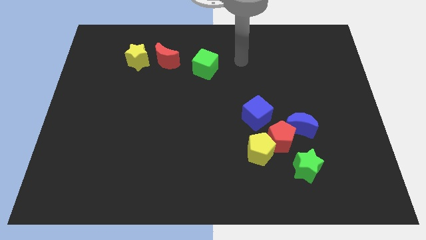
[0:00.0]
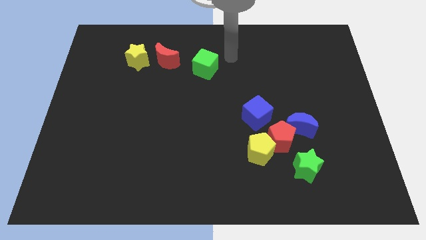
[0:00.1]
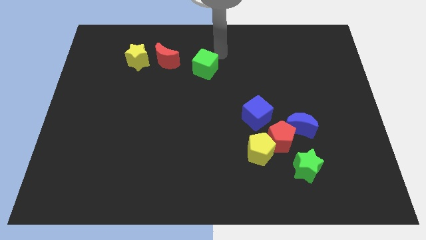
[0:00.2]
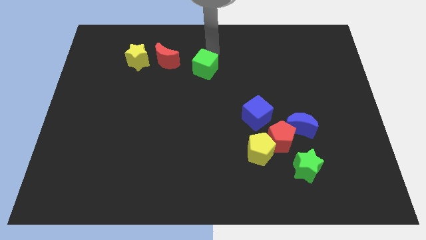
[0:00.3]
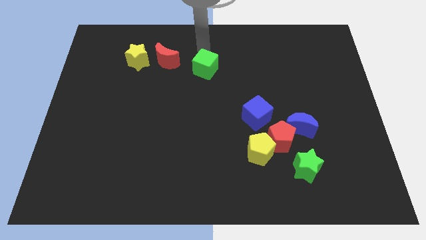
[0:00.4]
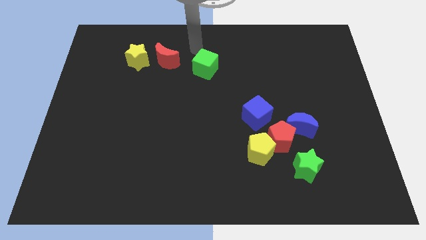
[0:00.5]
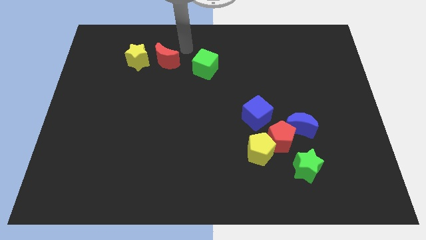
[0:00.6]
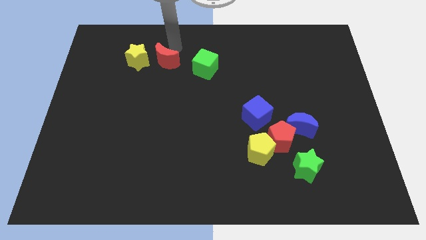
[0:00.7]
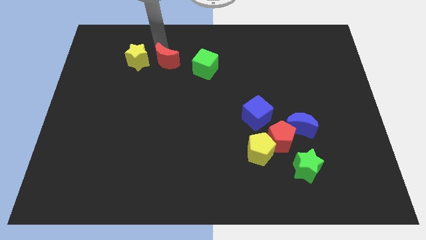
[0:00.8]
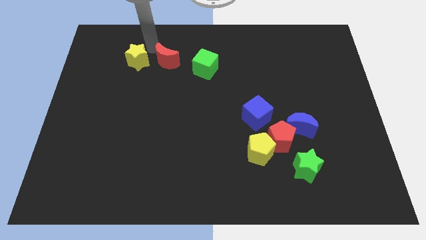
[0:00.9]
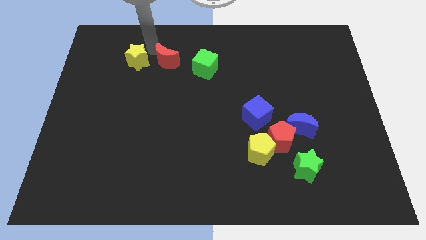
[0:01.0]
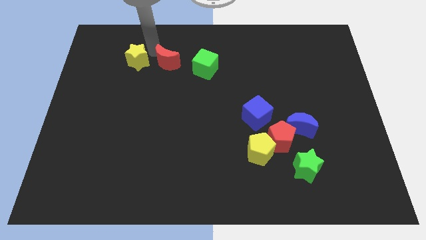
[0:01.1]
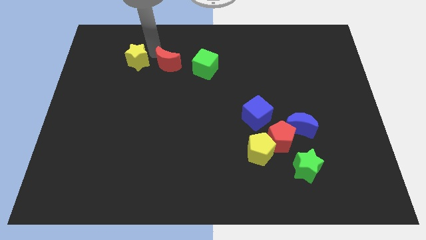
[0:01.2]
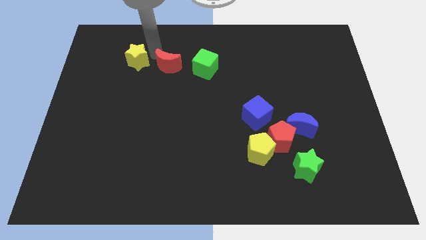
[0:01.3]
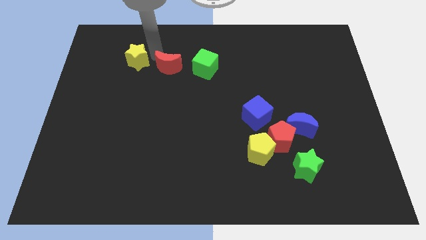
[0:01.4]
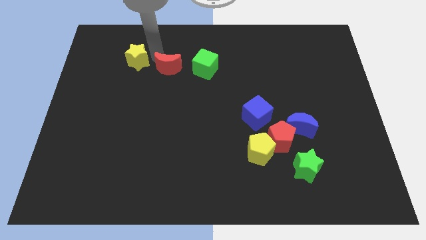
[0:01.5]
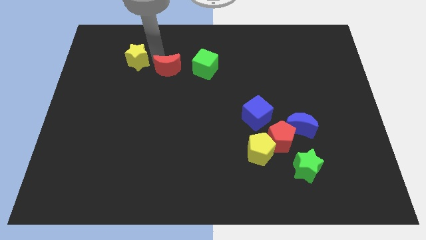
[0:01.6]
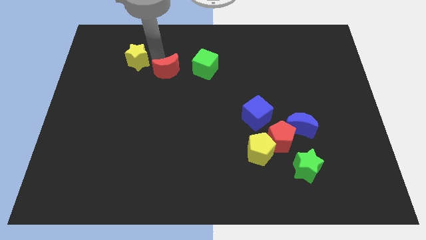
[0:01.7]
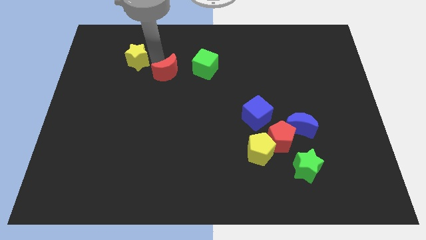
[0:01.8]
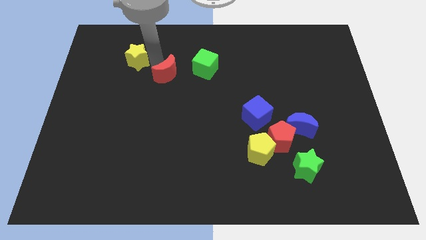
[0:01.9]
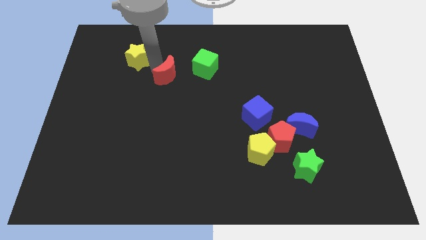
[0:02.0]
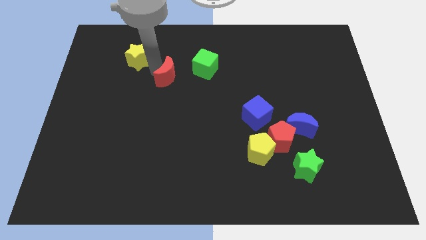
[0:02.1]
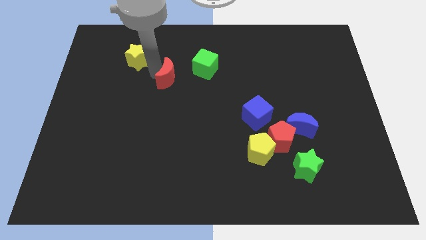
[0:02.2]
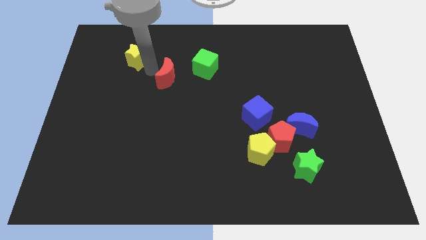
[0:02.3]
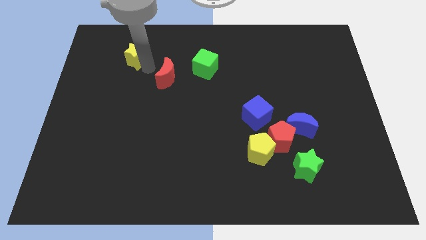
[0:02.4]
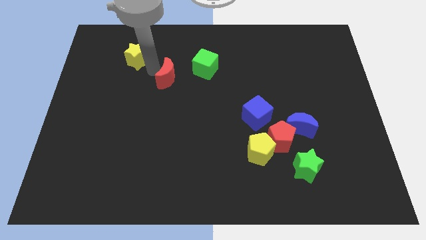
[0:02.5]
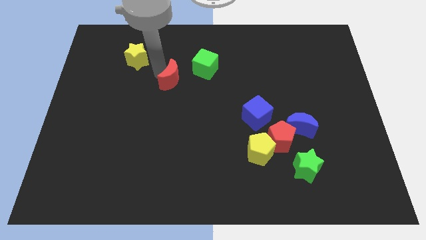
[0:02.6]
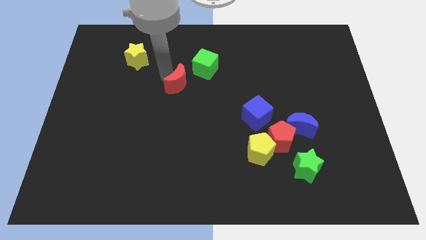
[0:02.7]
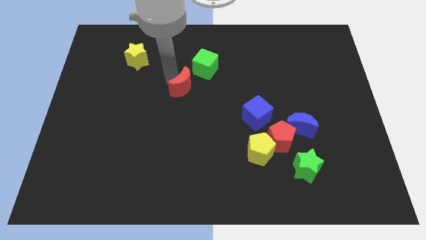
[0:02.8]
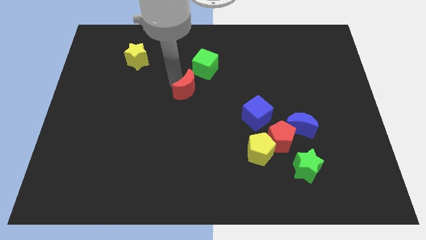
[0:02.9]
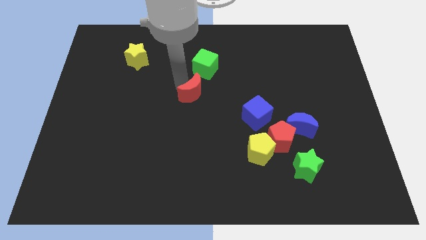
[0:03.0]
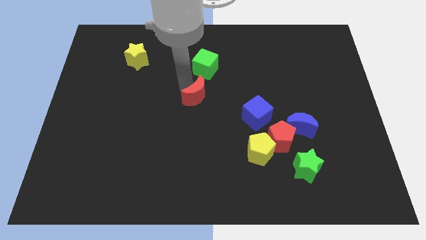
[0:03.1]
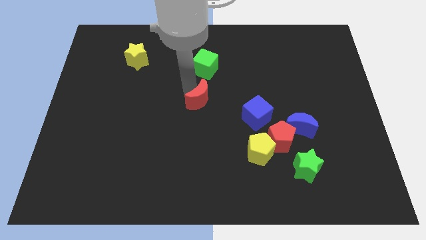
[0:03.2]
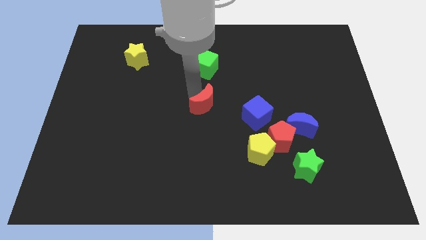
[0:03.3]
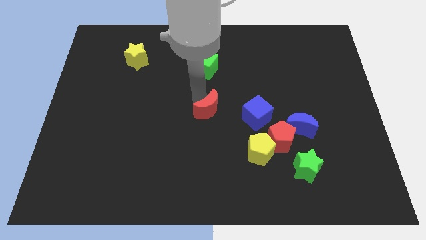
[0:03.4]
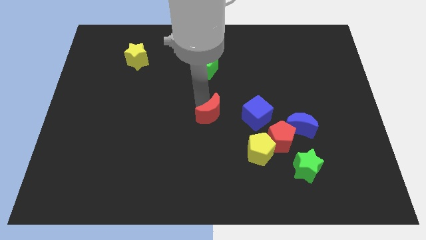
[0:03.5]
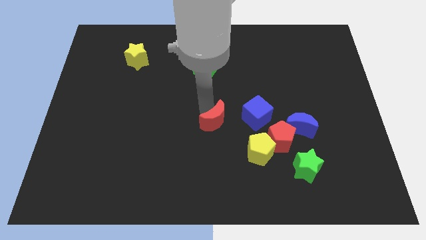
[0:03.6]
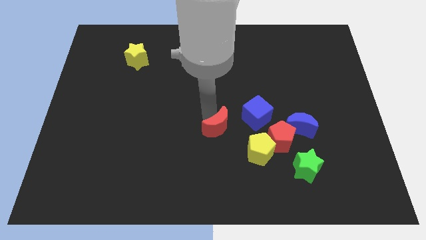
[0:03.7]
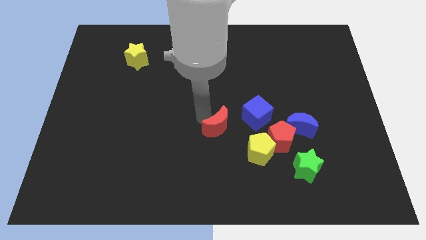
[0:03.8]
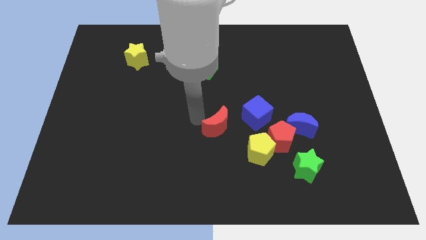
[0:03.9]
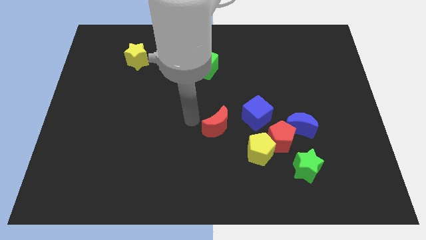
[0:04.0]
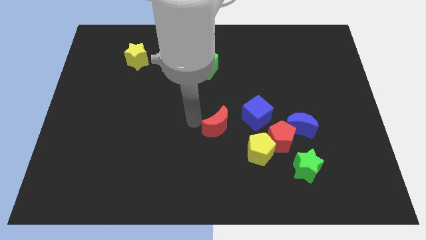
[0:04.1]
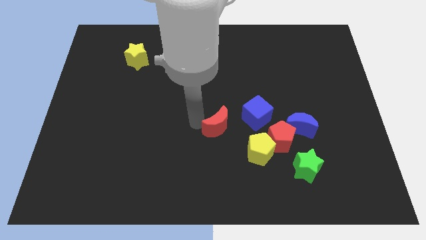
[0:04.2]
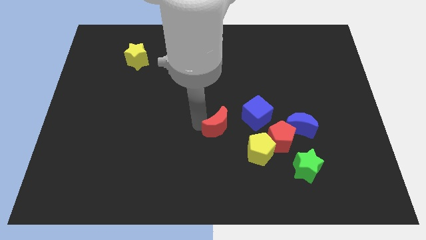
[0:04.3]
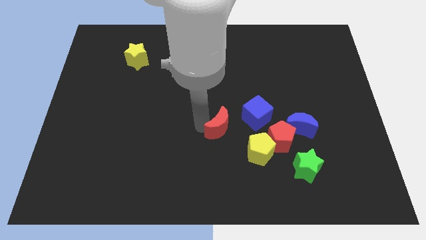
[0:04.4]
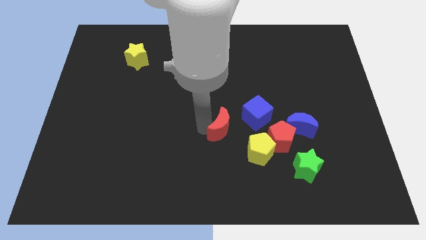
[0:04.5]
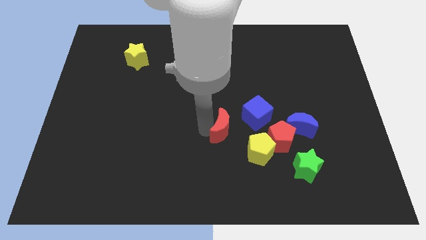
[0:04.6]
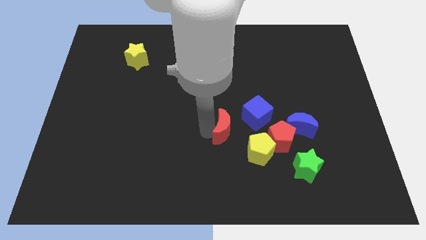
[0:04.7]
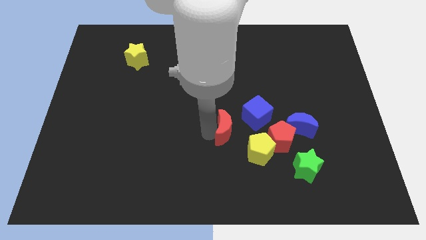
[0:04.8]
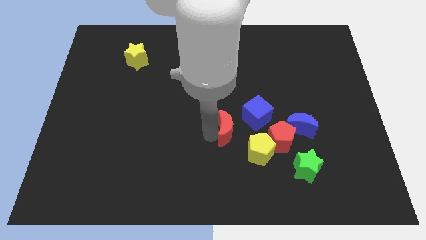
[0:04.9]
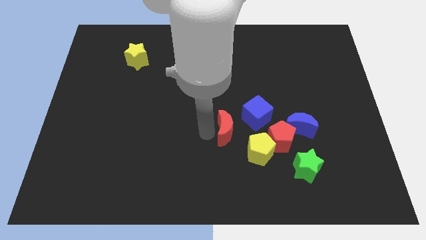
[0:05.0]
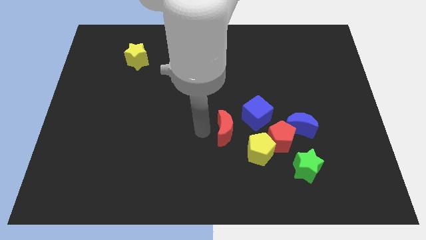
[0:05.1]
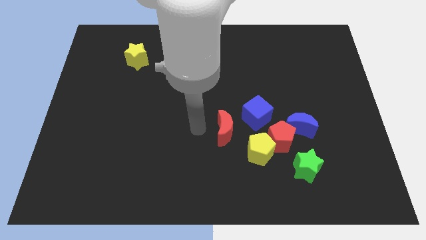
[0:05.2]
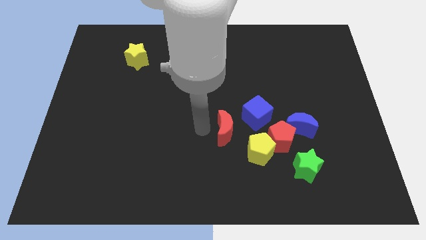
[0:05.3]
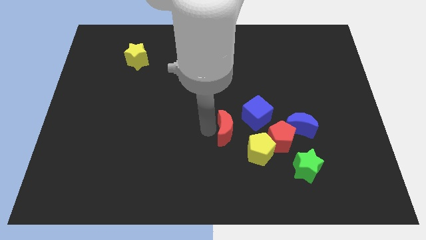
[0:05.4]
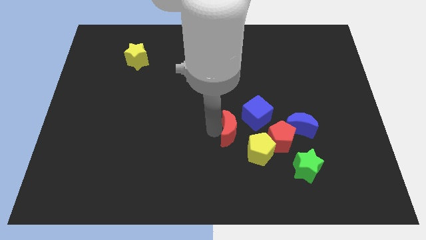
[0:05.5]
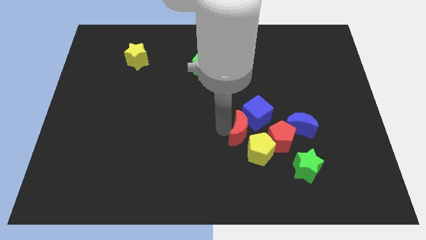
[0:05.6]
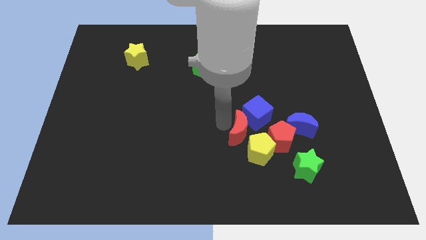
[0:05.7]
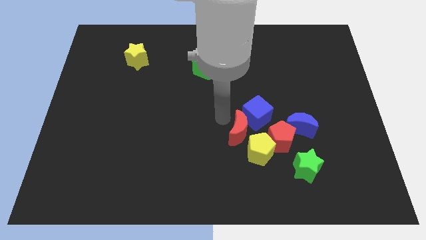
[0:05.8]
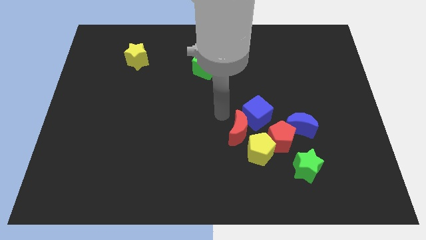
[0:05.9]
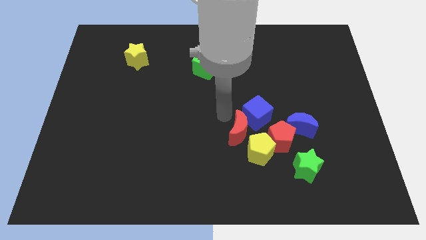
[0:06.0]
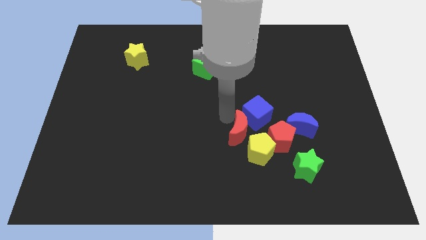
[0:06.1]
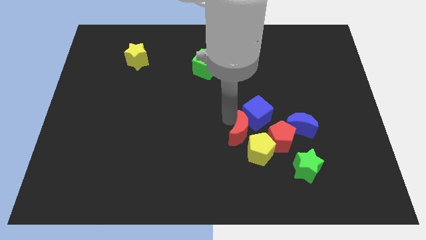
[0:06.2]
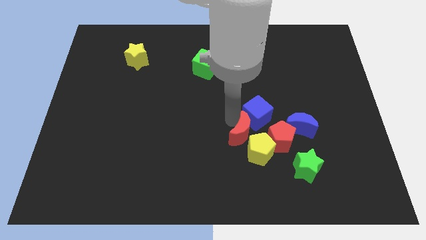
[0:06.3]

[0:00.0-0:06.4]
slide the red moon towards the yellow pentagon
